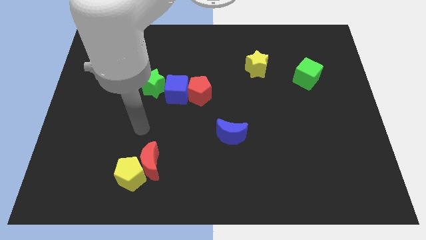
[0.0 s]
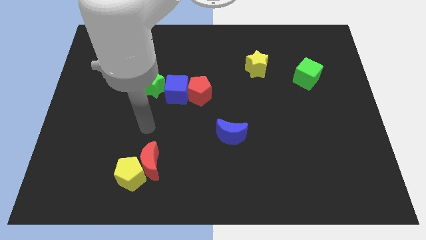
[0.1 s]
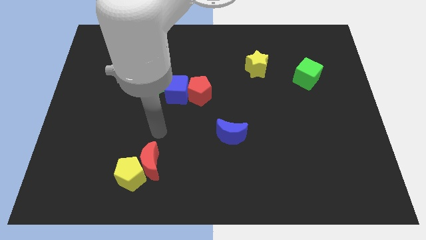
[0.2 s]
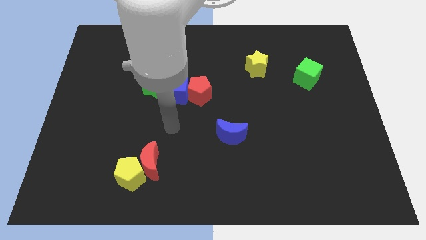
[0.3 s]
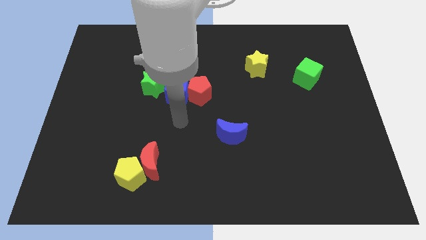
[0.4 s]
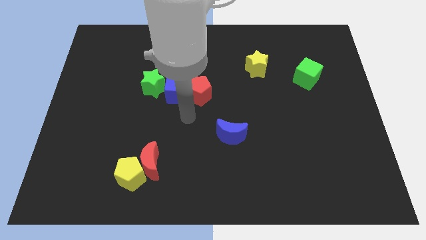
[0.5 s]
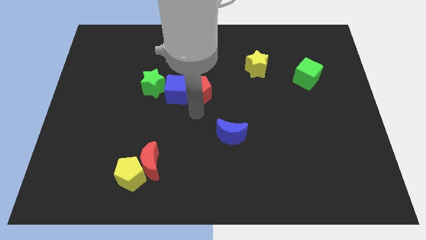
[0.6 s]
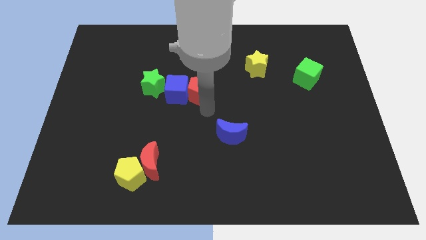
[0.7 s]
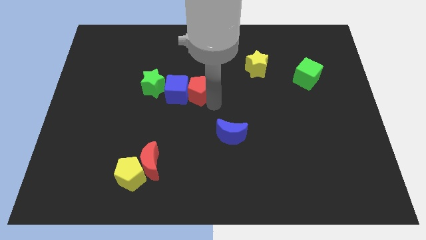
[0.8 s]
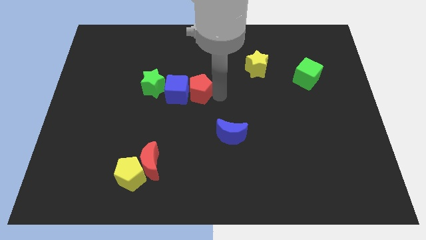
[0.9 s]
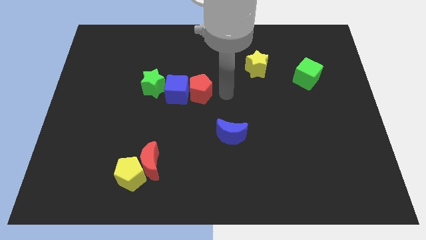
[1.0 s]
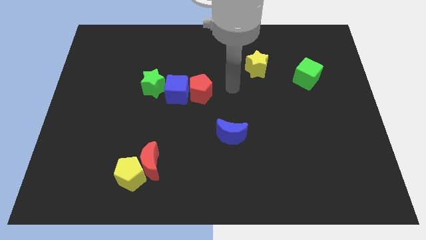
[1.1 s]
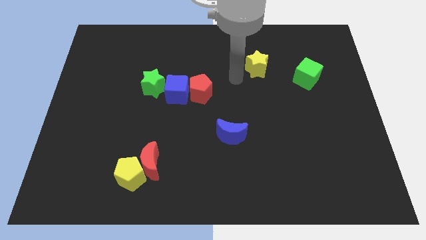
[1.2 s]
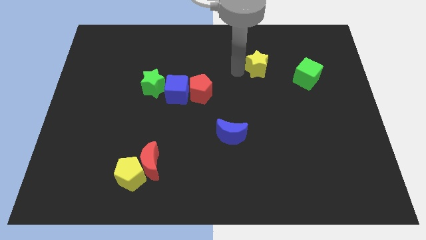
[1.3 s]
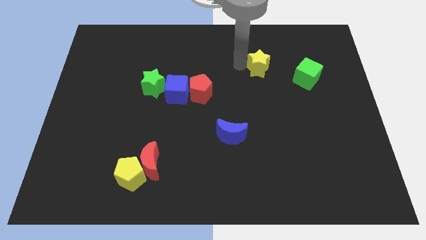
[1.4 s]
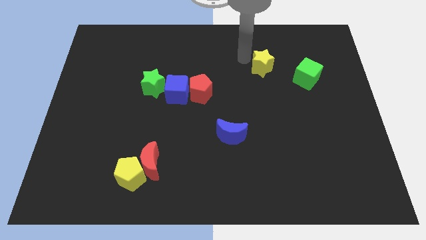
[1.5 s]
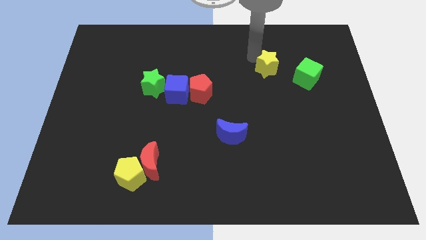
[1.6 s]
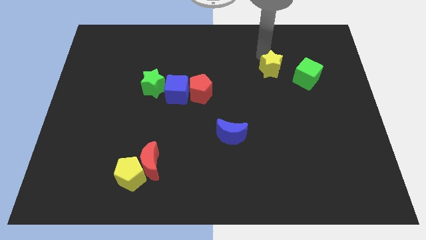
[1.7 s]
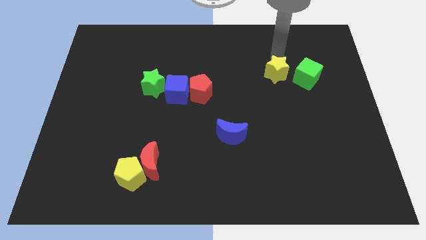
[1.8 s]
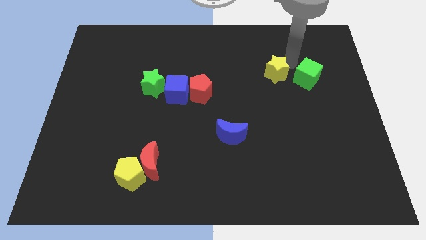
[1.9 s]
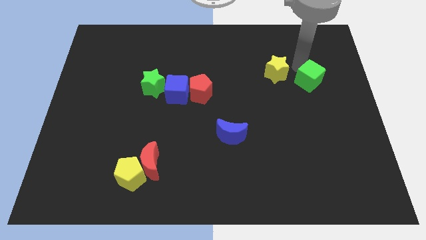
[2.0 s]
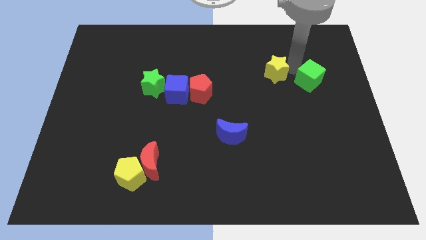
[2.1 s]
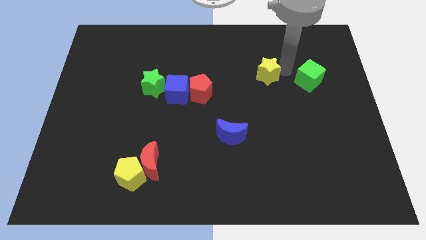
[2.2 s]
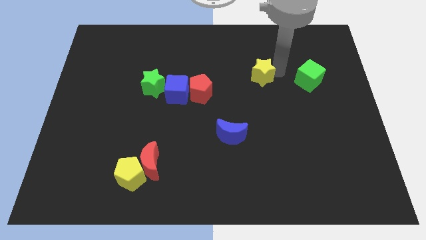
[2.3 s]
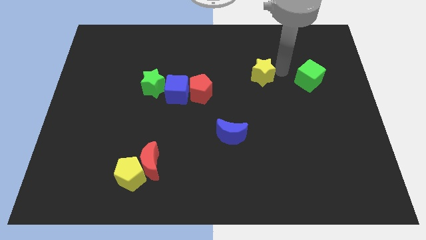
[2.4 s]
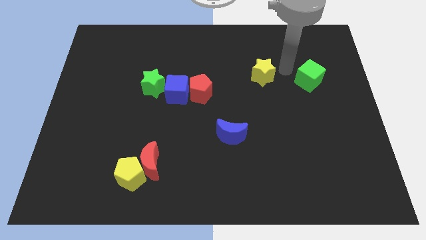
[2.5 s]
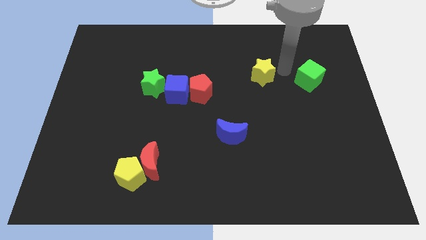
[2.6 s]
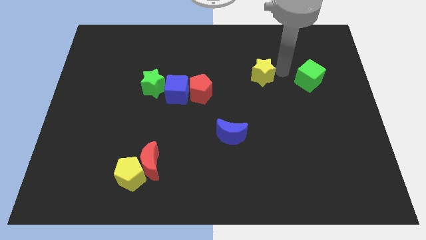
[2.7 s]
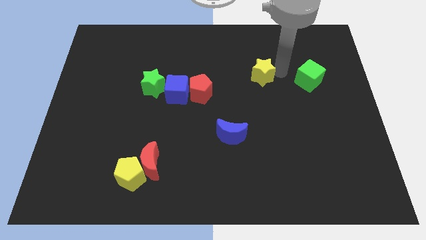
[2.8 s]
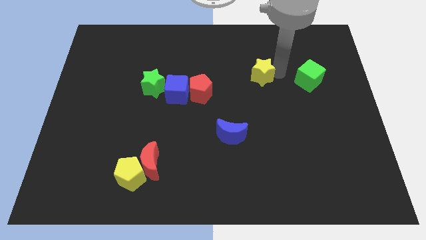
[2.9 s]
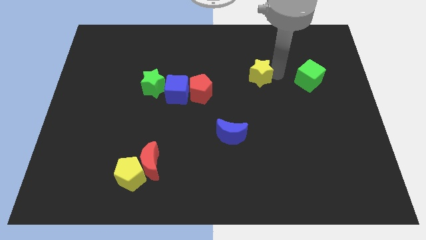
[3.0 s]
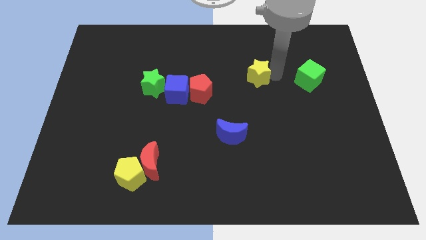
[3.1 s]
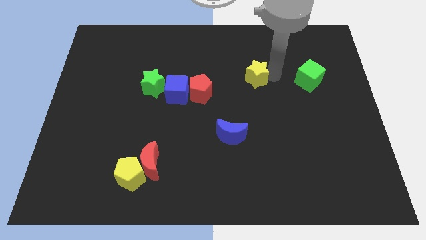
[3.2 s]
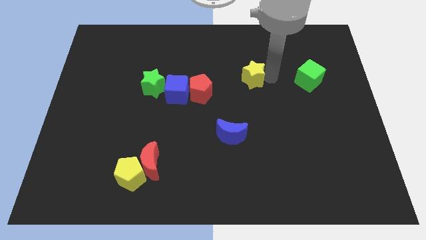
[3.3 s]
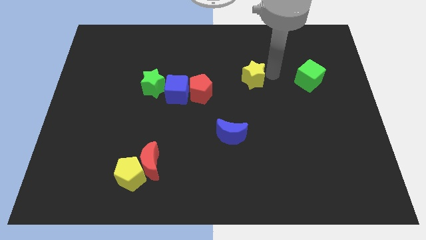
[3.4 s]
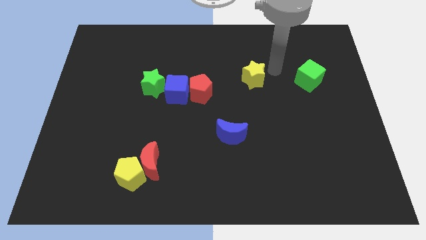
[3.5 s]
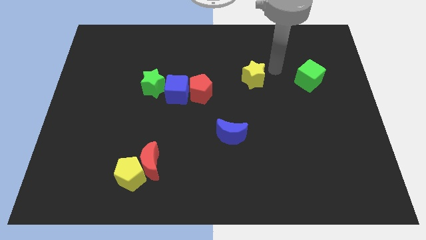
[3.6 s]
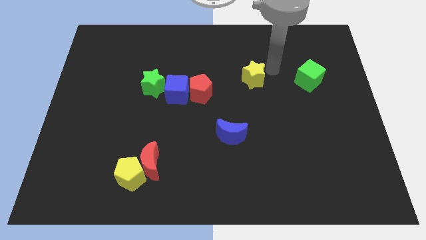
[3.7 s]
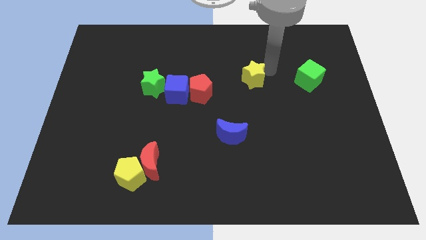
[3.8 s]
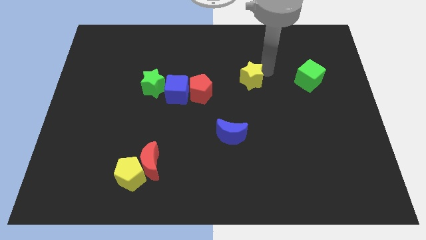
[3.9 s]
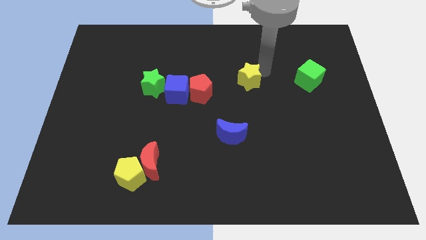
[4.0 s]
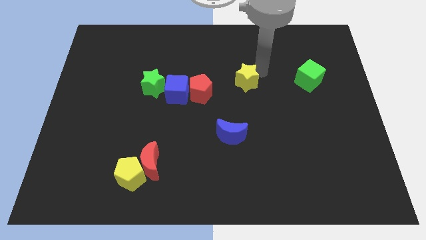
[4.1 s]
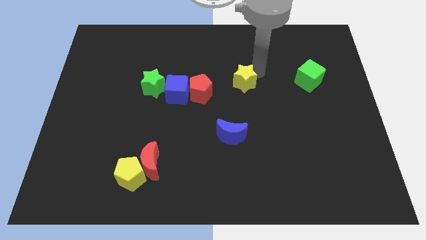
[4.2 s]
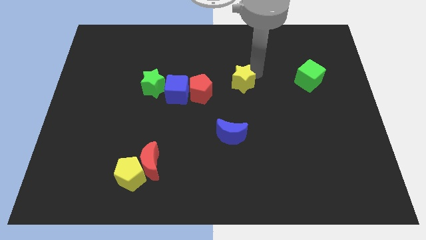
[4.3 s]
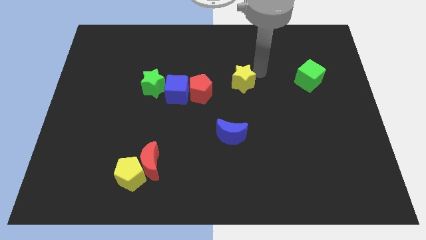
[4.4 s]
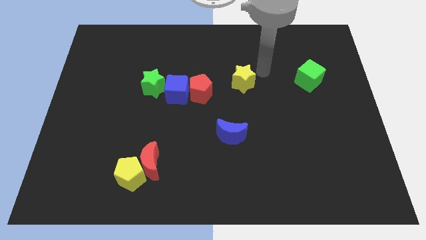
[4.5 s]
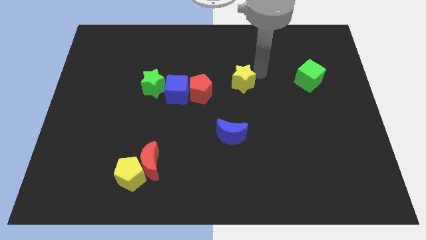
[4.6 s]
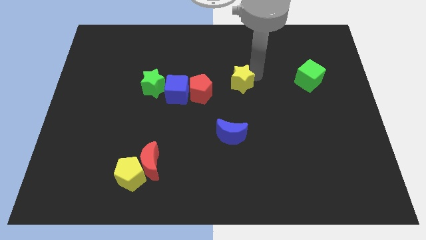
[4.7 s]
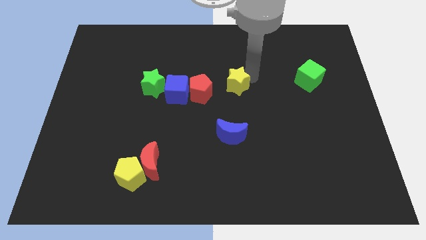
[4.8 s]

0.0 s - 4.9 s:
slightly slide the yellow star down and then left

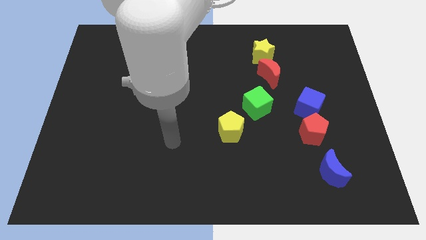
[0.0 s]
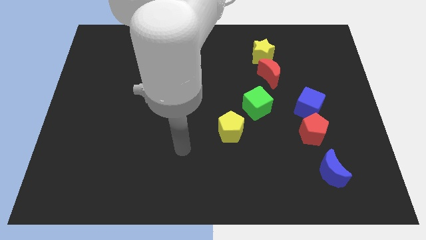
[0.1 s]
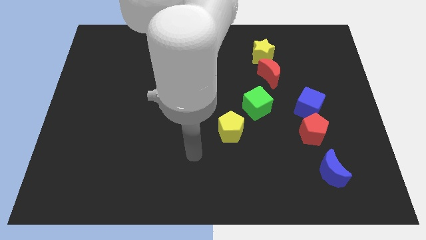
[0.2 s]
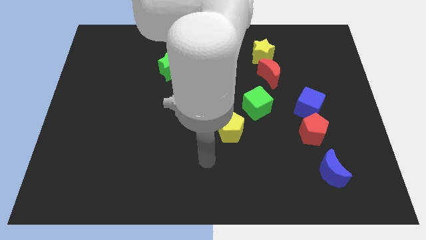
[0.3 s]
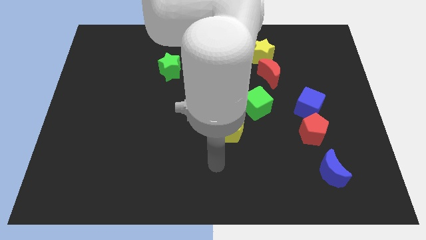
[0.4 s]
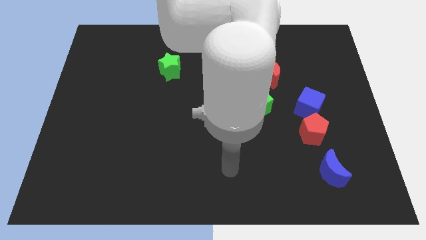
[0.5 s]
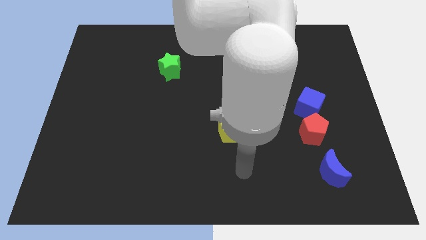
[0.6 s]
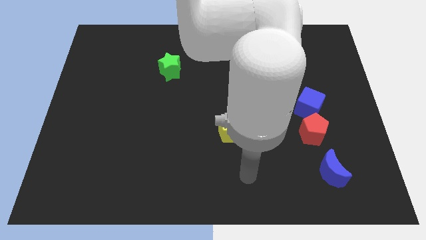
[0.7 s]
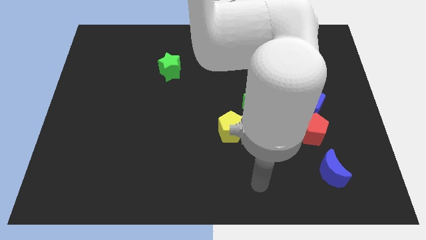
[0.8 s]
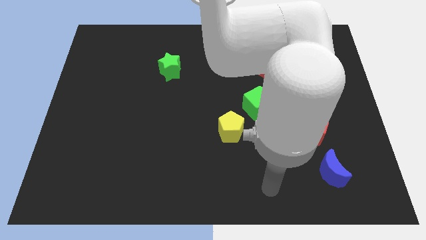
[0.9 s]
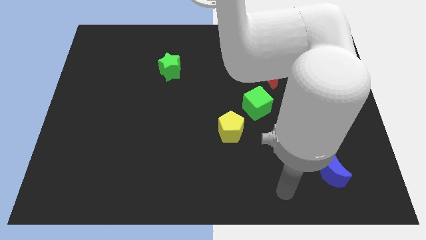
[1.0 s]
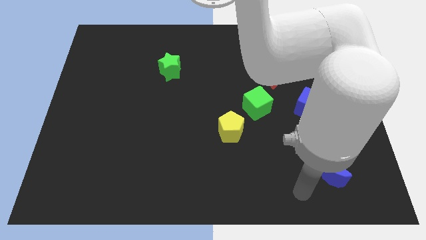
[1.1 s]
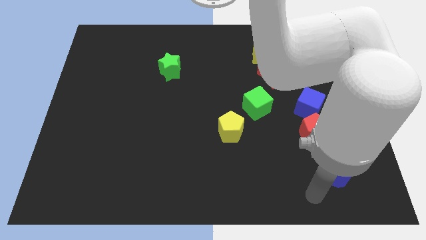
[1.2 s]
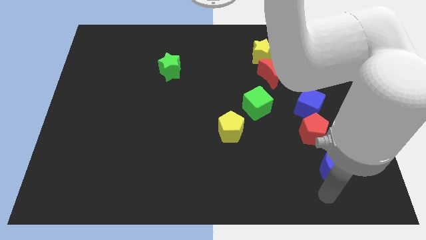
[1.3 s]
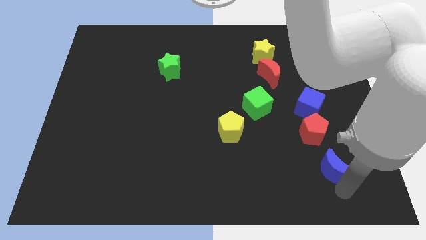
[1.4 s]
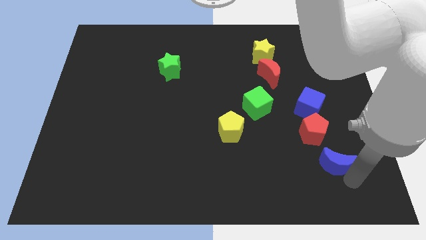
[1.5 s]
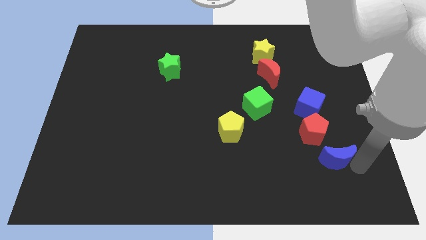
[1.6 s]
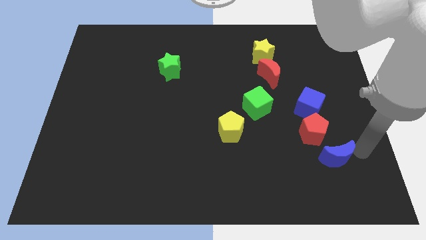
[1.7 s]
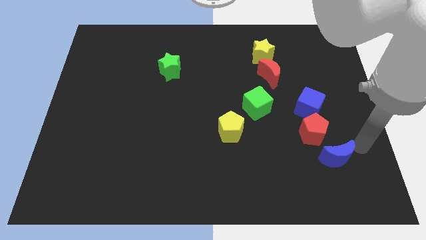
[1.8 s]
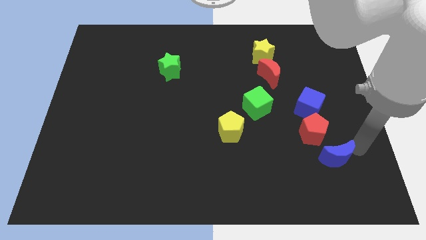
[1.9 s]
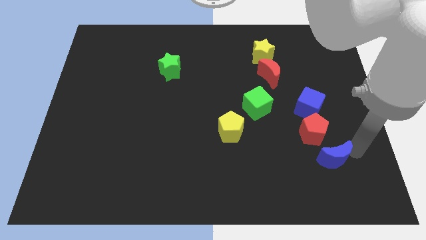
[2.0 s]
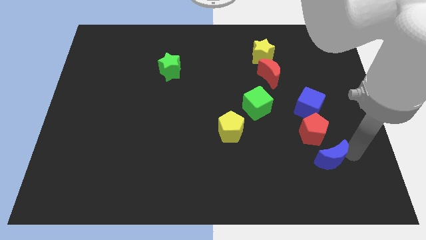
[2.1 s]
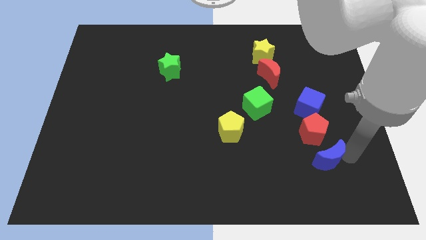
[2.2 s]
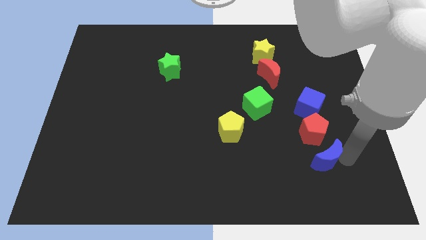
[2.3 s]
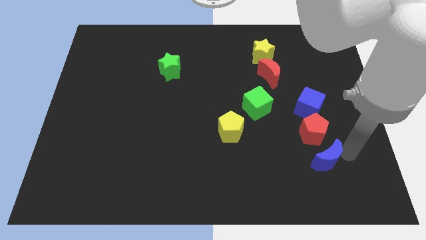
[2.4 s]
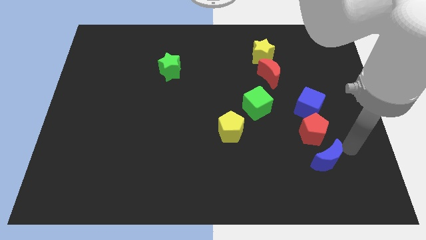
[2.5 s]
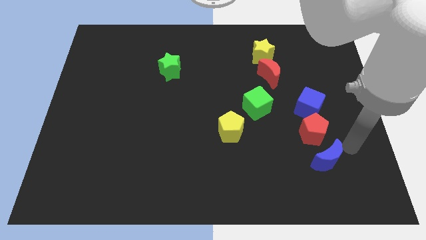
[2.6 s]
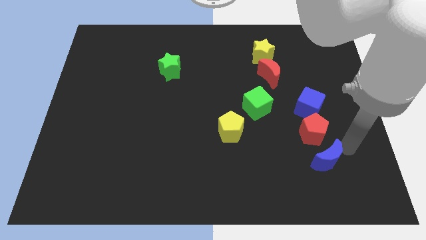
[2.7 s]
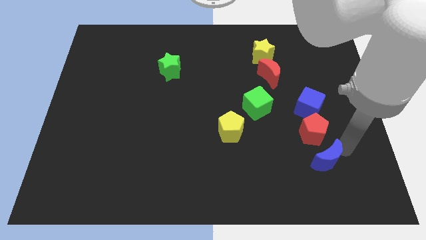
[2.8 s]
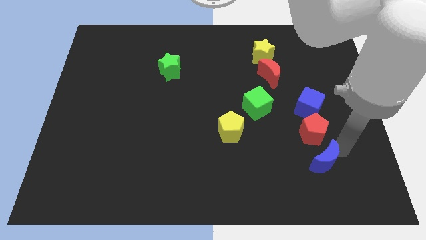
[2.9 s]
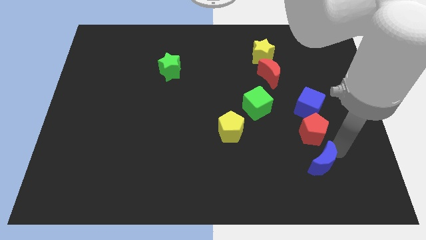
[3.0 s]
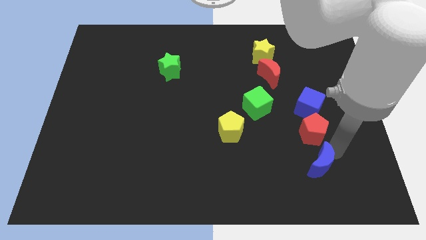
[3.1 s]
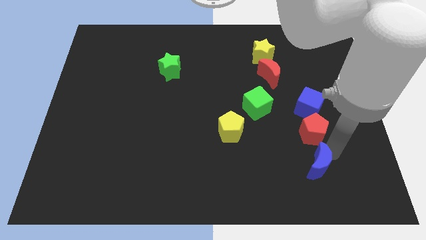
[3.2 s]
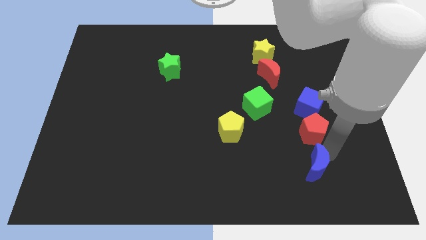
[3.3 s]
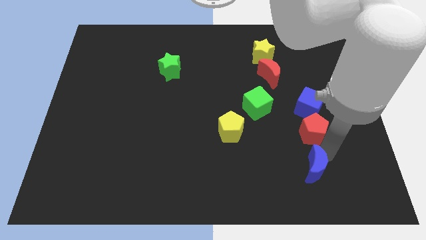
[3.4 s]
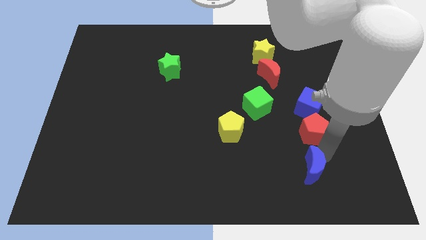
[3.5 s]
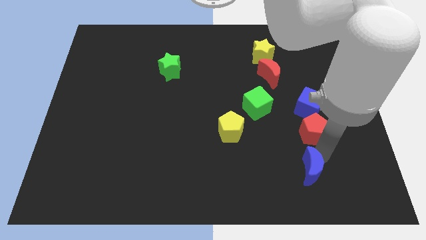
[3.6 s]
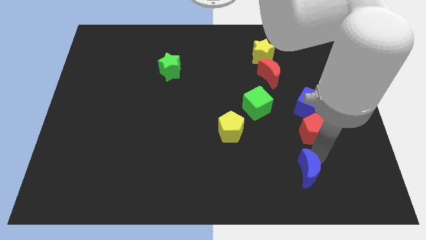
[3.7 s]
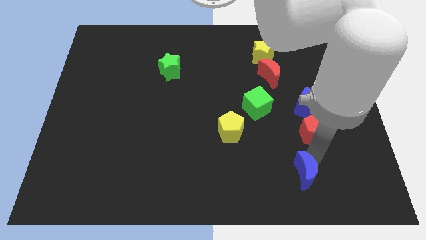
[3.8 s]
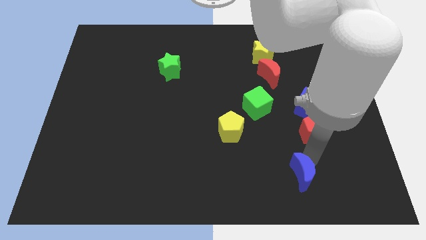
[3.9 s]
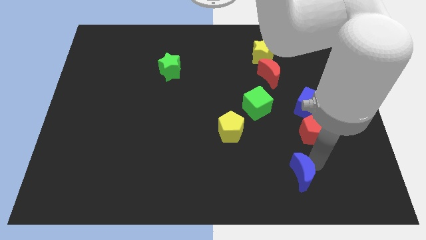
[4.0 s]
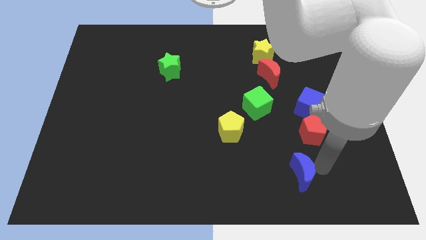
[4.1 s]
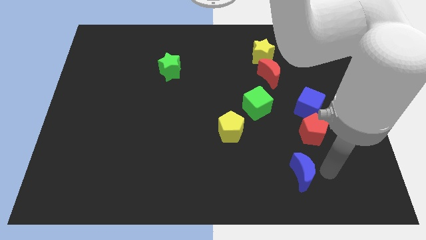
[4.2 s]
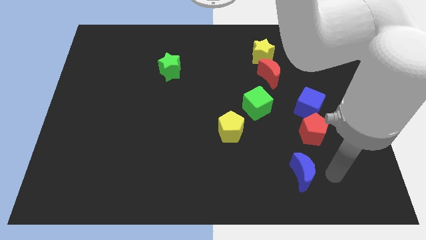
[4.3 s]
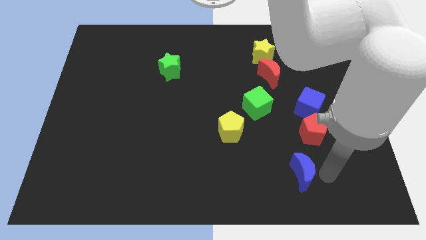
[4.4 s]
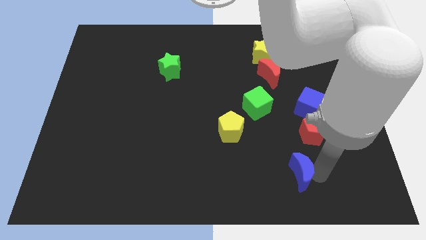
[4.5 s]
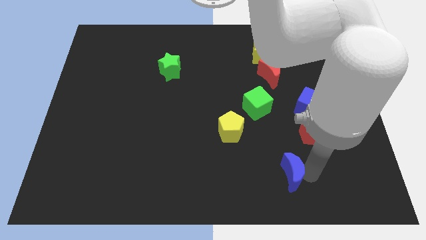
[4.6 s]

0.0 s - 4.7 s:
slide the blue moon a little to the left
